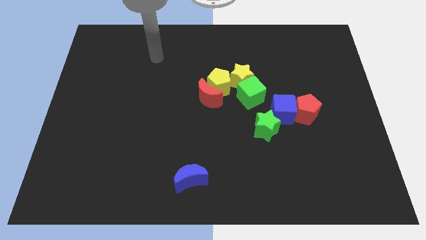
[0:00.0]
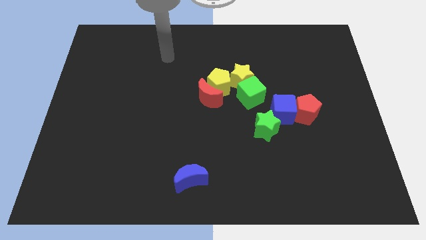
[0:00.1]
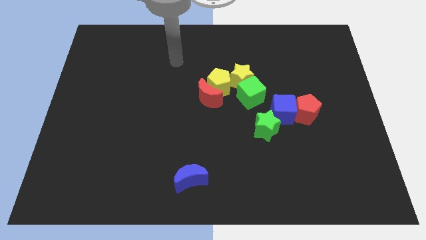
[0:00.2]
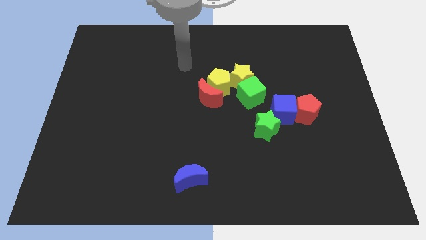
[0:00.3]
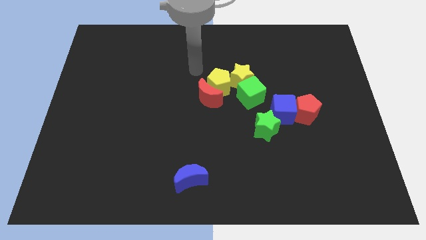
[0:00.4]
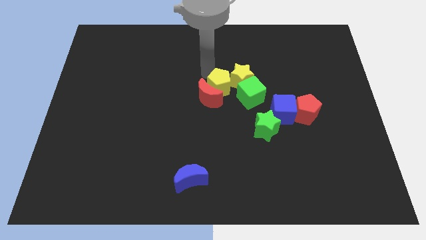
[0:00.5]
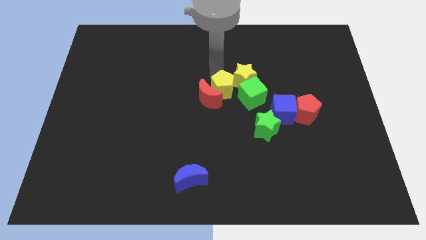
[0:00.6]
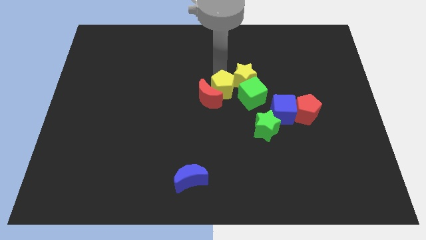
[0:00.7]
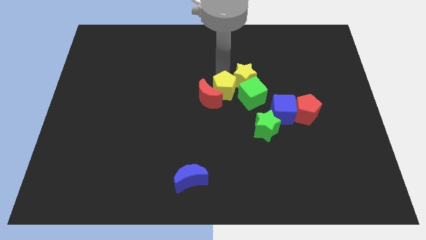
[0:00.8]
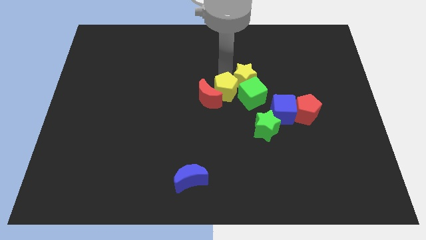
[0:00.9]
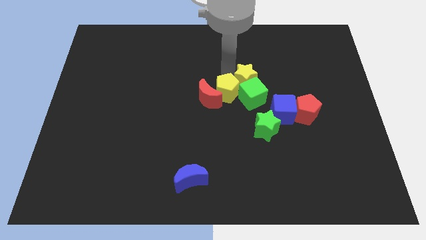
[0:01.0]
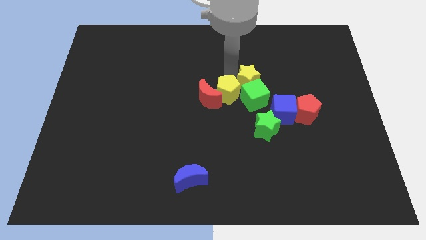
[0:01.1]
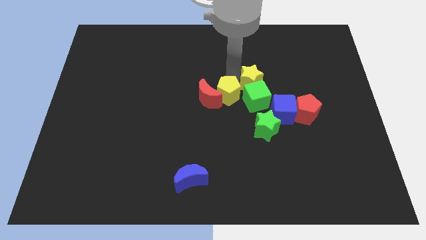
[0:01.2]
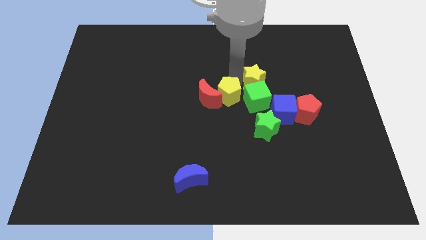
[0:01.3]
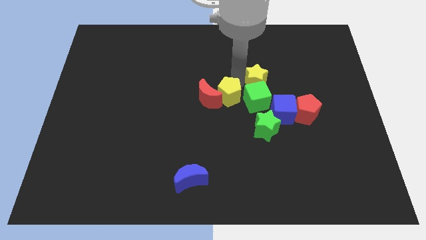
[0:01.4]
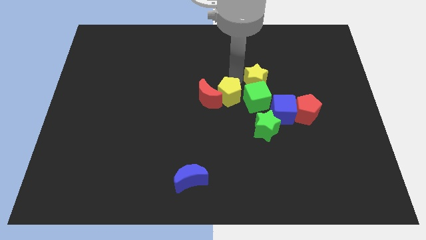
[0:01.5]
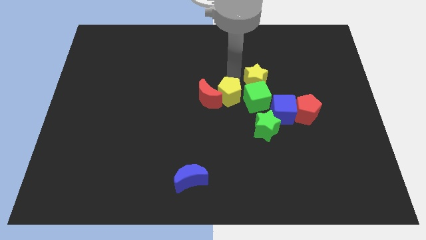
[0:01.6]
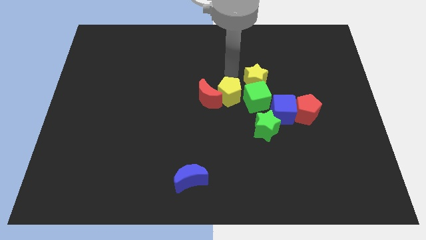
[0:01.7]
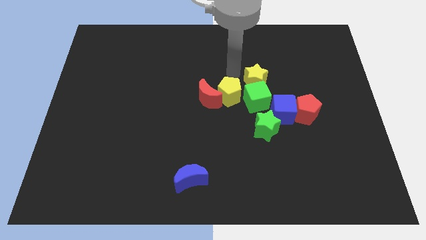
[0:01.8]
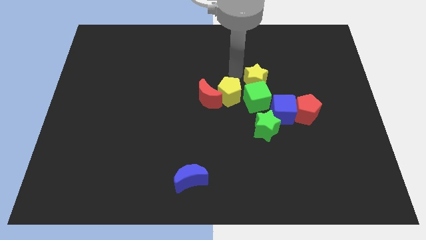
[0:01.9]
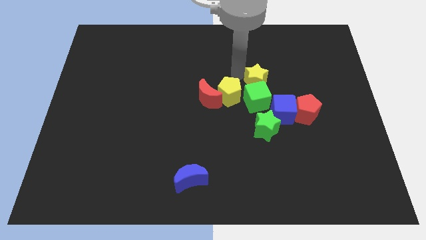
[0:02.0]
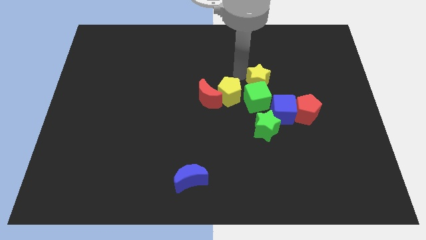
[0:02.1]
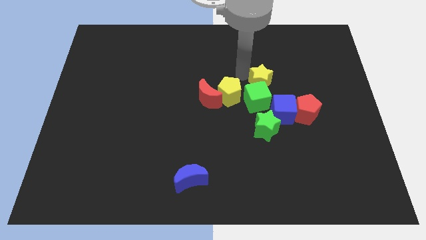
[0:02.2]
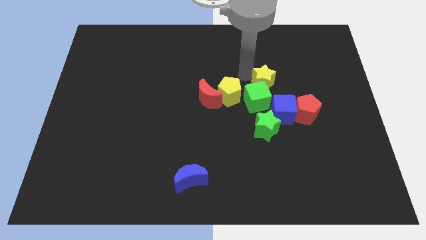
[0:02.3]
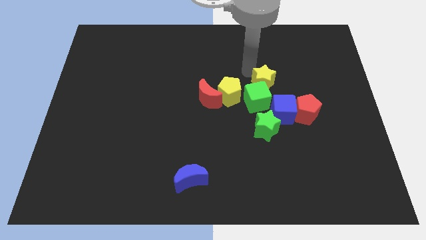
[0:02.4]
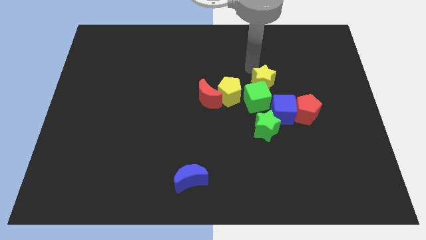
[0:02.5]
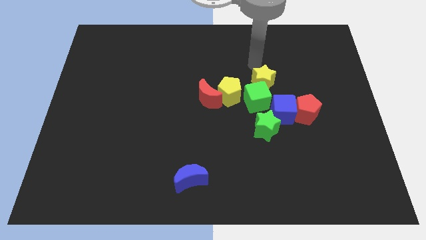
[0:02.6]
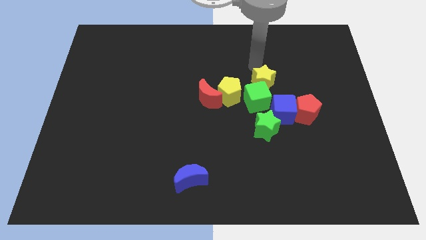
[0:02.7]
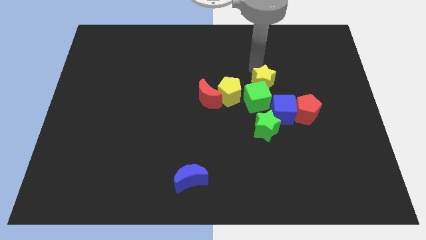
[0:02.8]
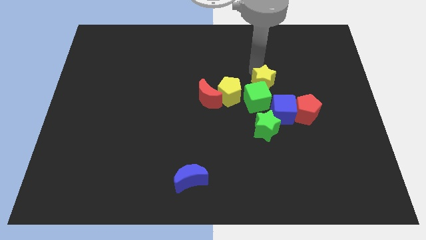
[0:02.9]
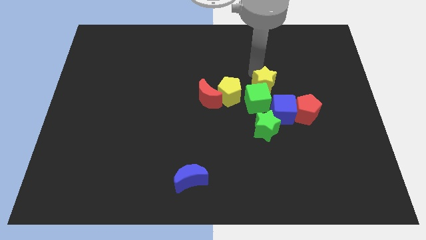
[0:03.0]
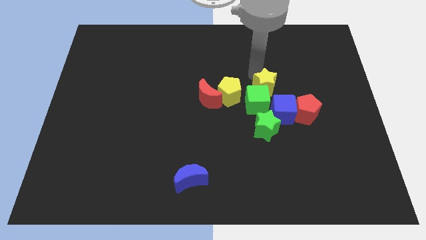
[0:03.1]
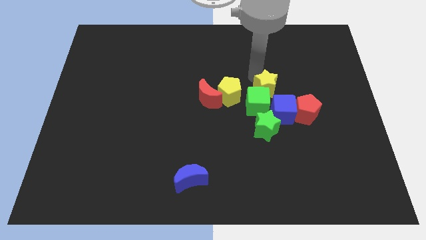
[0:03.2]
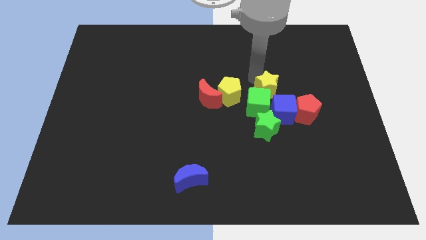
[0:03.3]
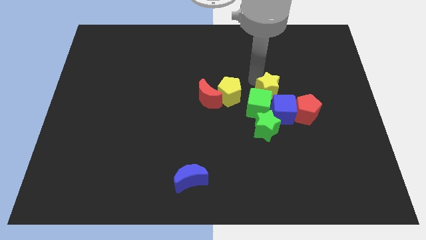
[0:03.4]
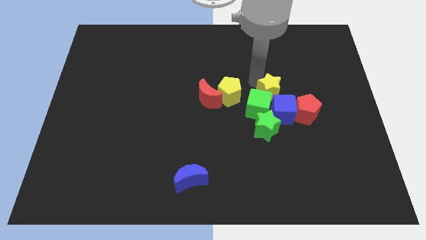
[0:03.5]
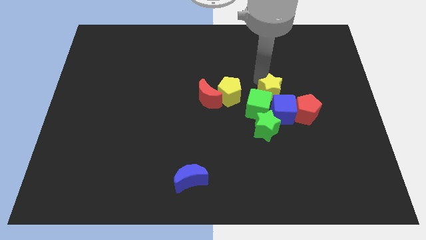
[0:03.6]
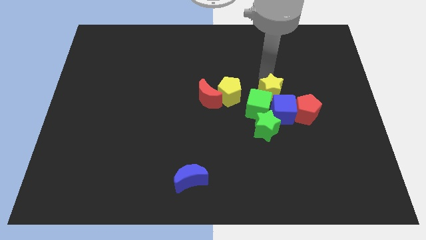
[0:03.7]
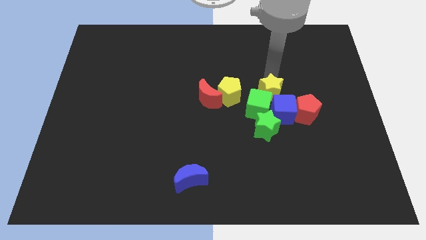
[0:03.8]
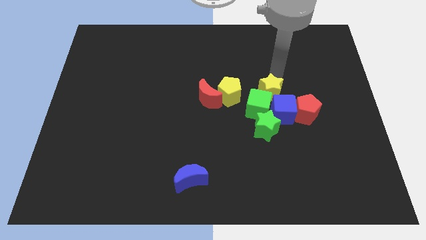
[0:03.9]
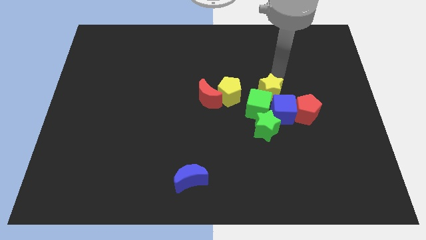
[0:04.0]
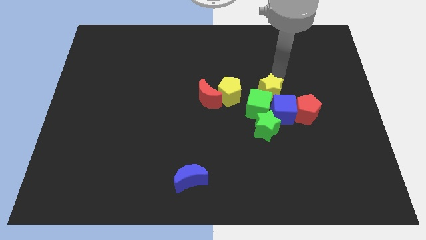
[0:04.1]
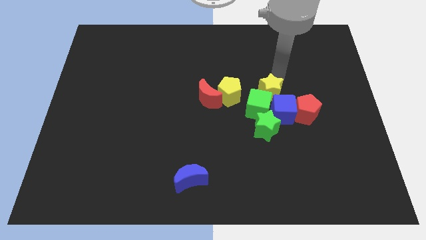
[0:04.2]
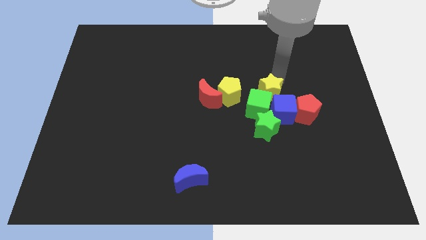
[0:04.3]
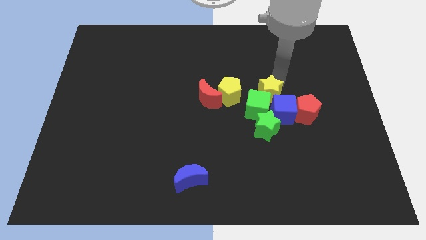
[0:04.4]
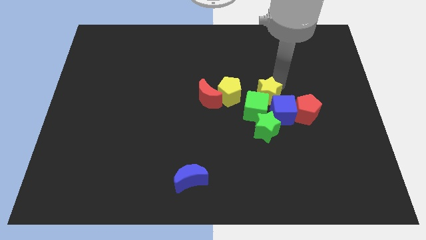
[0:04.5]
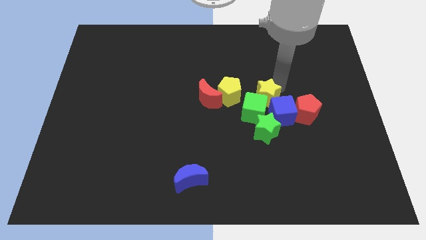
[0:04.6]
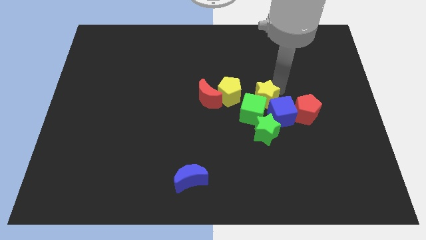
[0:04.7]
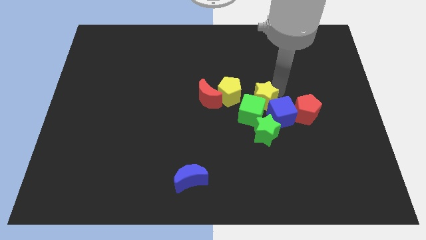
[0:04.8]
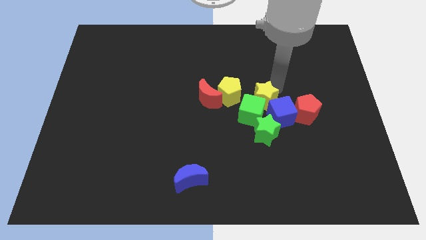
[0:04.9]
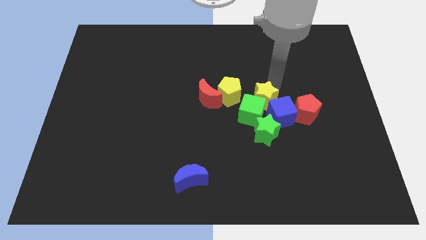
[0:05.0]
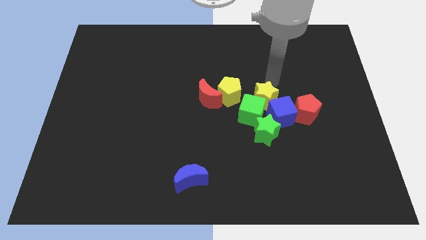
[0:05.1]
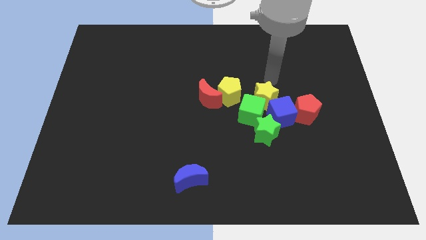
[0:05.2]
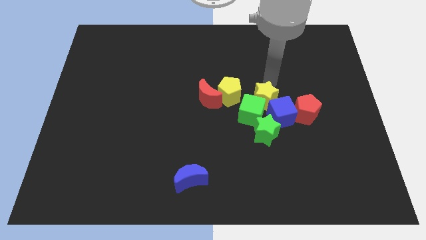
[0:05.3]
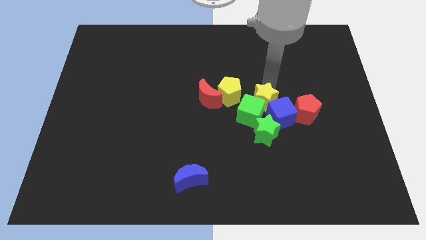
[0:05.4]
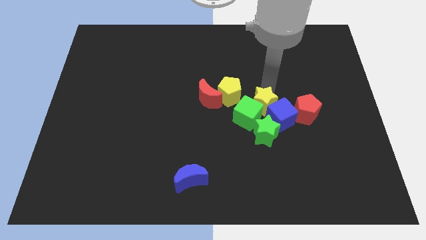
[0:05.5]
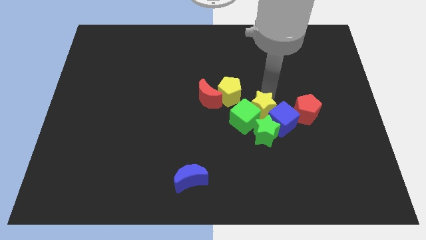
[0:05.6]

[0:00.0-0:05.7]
move the yellow star slightly downwards

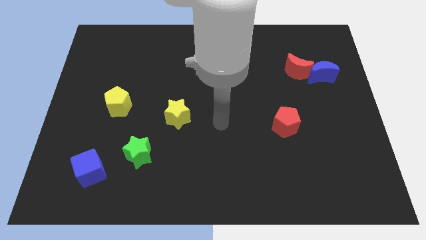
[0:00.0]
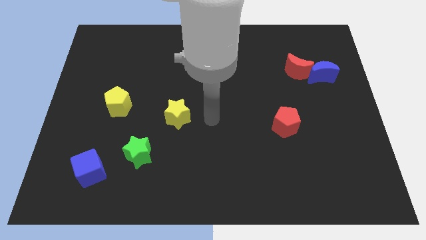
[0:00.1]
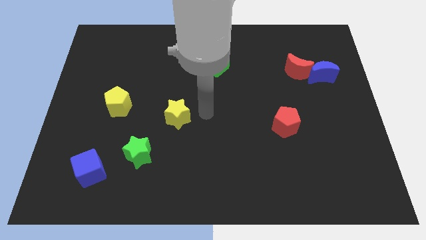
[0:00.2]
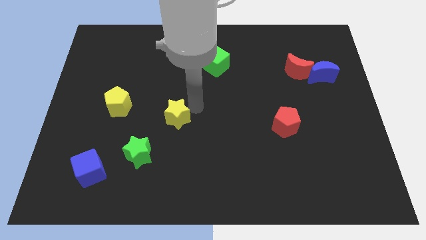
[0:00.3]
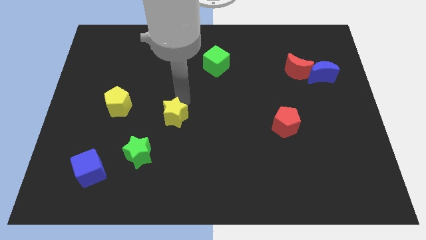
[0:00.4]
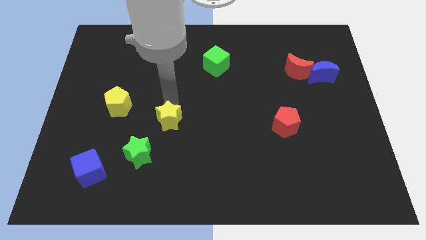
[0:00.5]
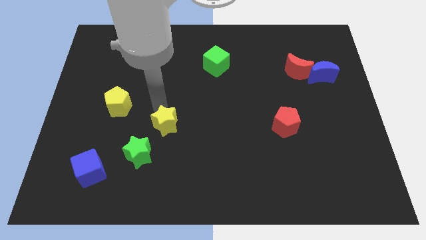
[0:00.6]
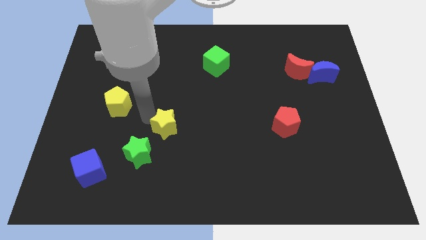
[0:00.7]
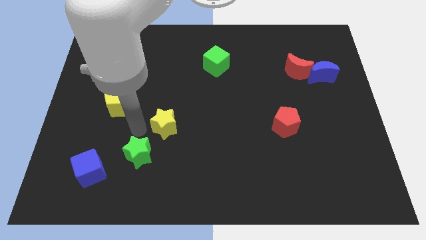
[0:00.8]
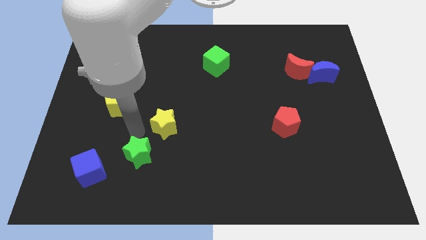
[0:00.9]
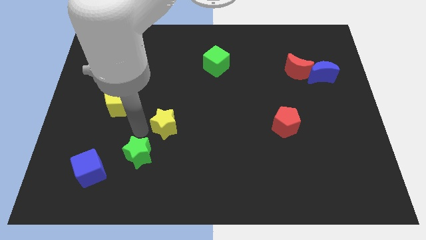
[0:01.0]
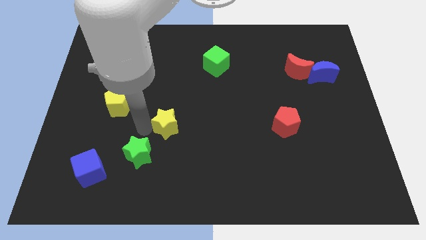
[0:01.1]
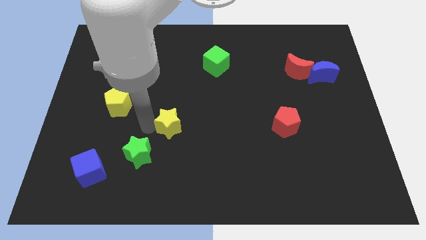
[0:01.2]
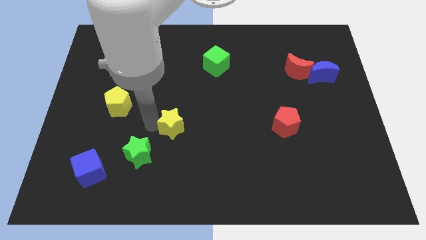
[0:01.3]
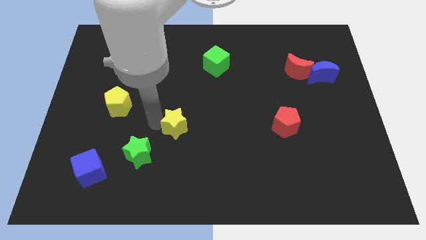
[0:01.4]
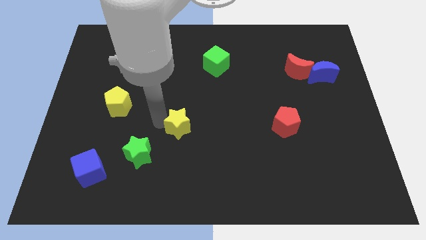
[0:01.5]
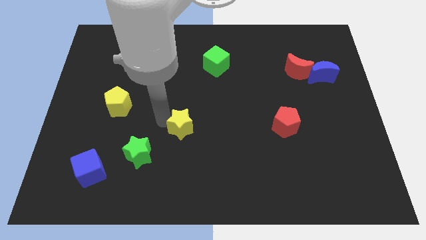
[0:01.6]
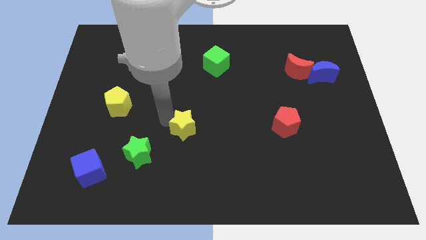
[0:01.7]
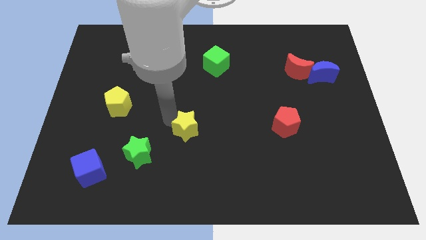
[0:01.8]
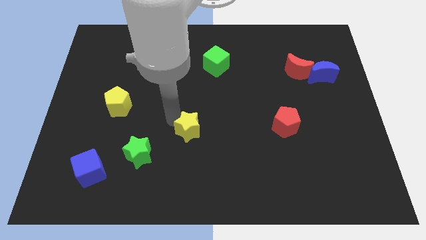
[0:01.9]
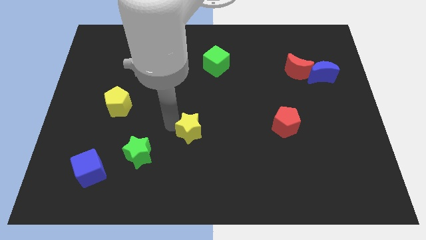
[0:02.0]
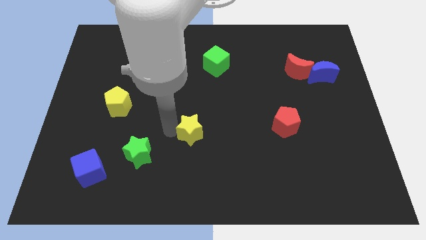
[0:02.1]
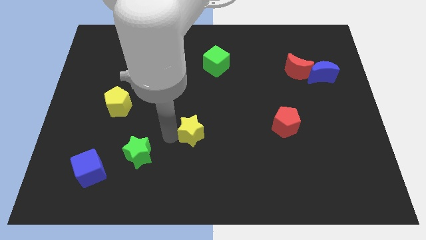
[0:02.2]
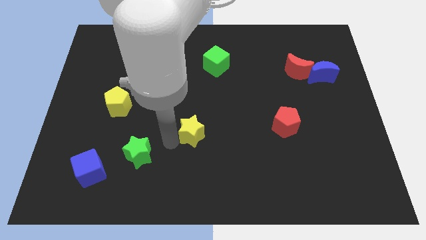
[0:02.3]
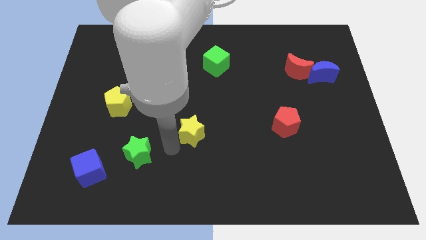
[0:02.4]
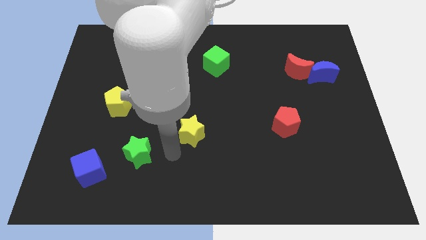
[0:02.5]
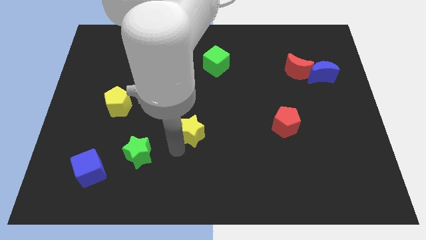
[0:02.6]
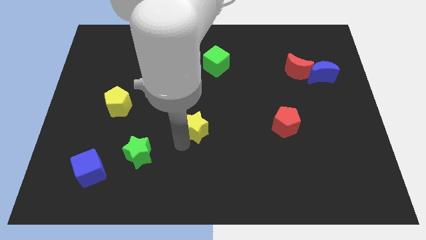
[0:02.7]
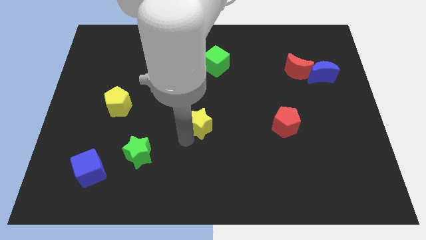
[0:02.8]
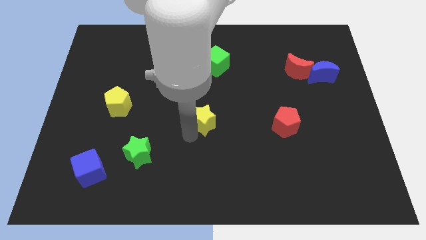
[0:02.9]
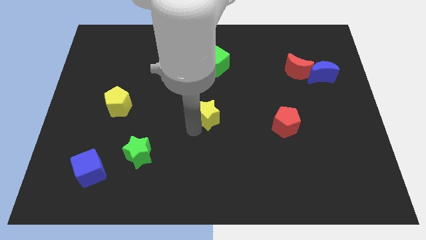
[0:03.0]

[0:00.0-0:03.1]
slightly push the yellow star to the right
